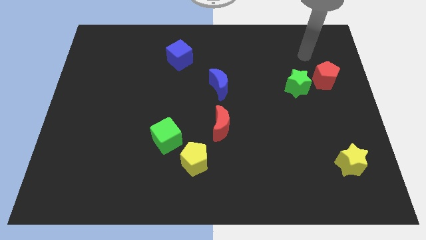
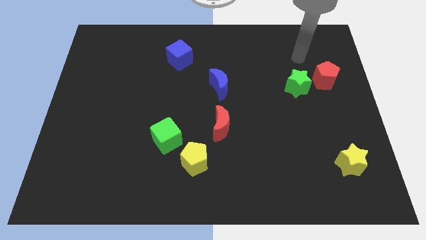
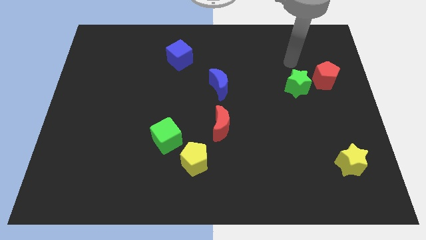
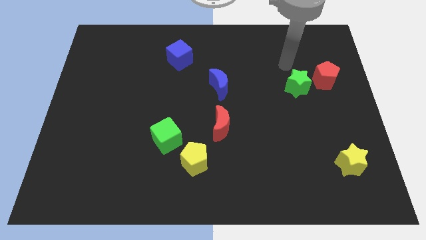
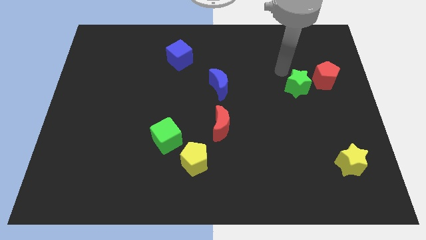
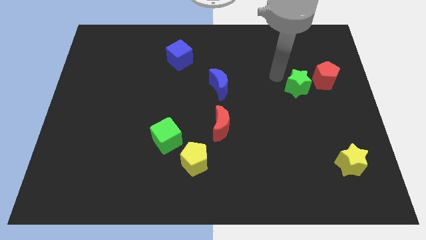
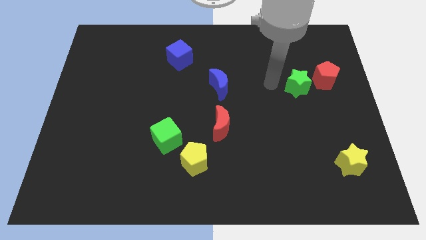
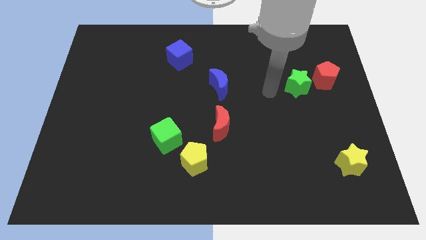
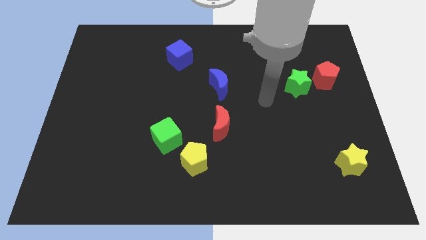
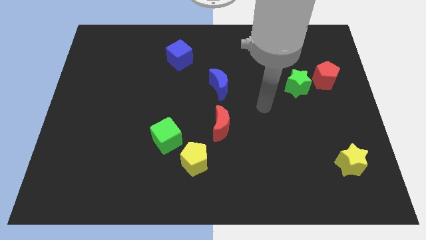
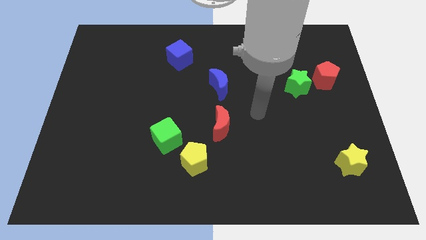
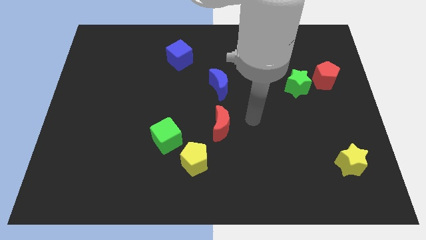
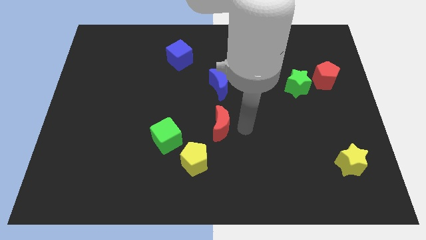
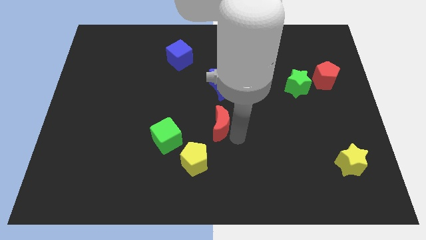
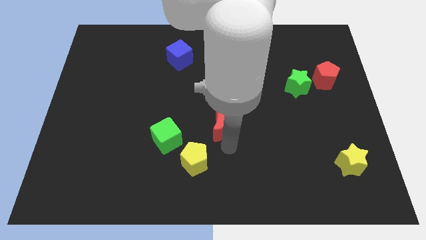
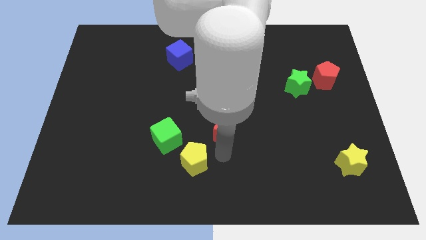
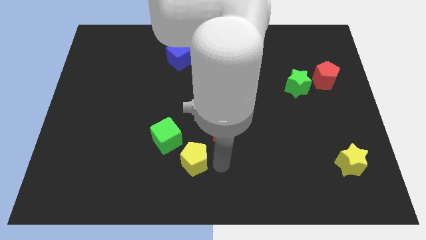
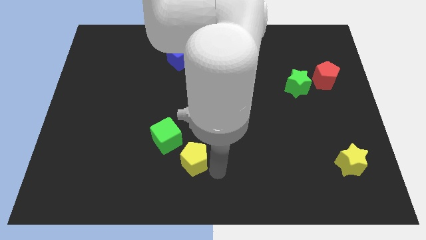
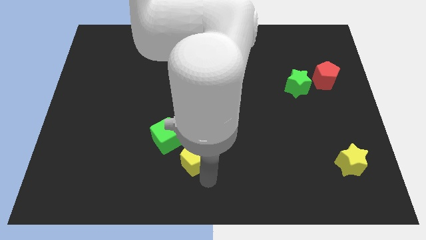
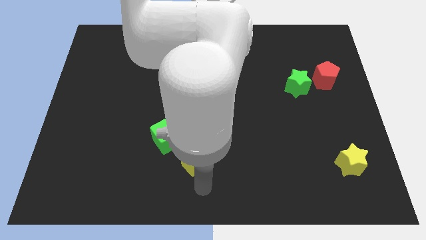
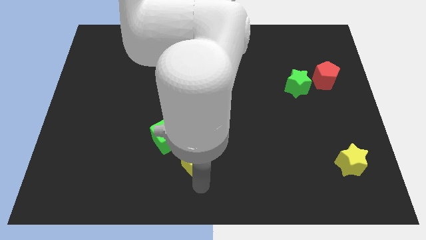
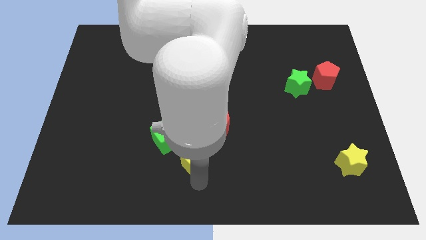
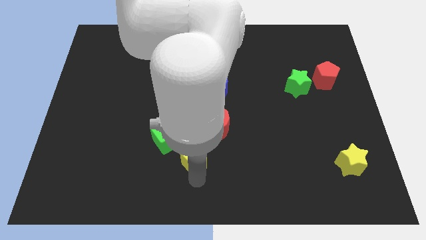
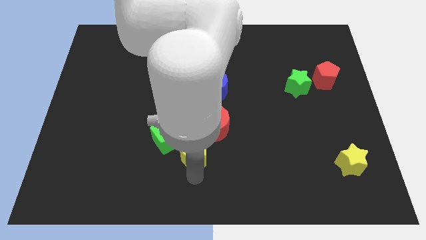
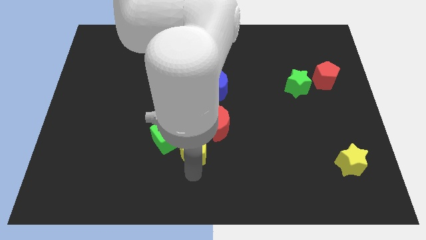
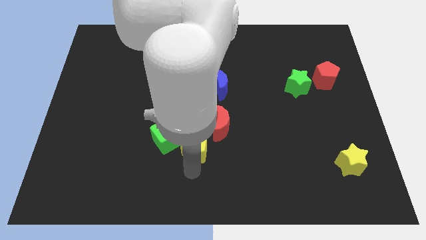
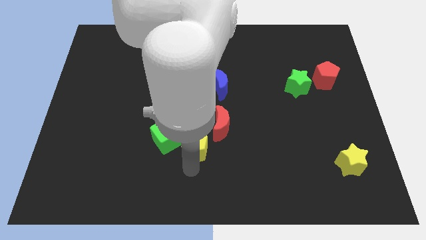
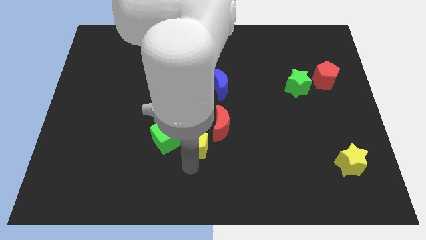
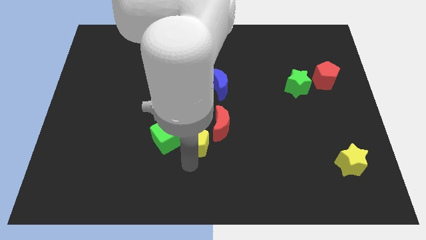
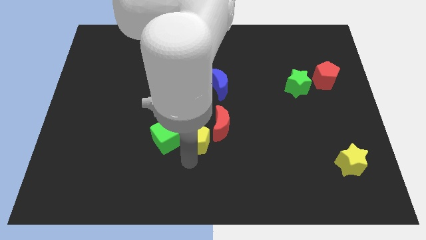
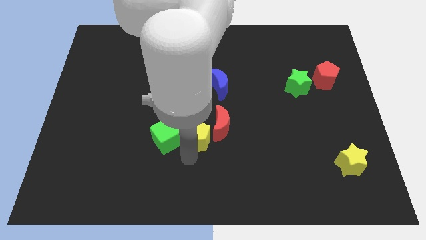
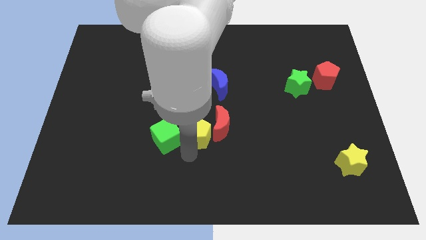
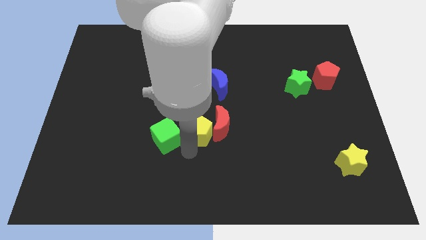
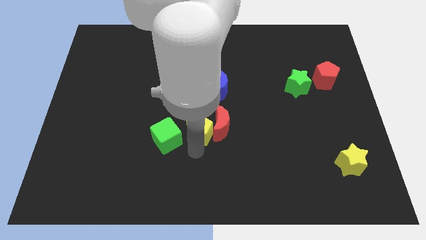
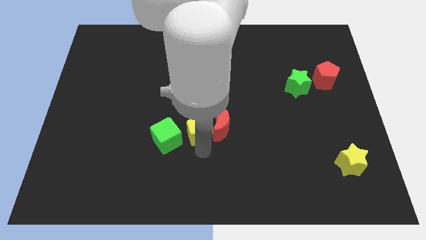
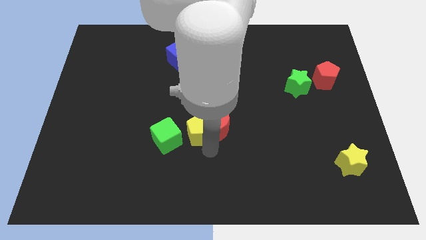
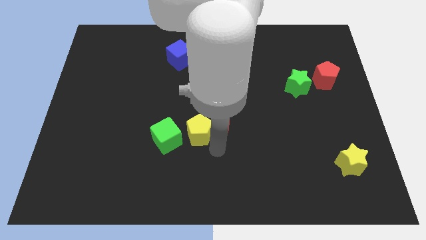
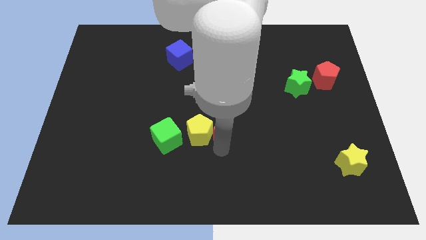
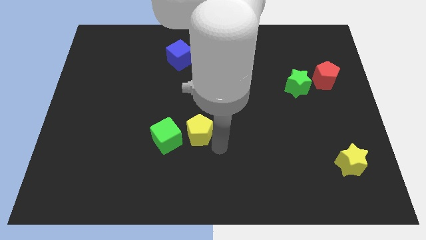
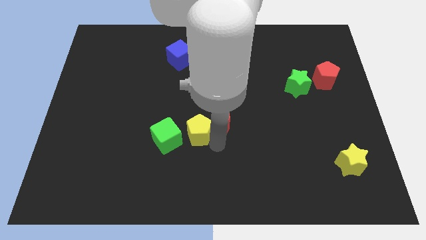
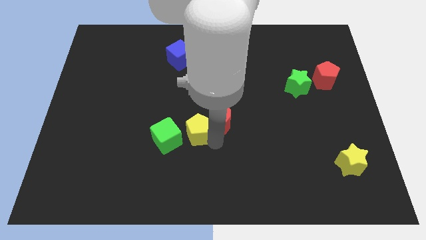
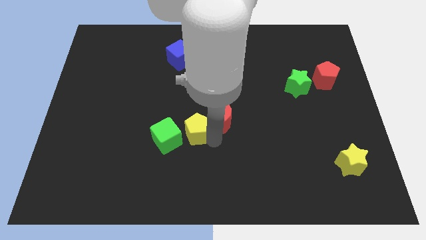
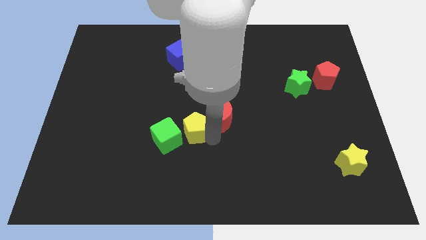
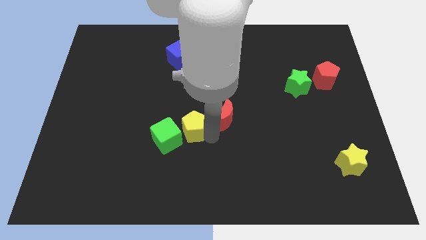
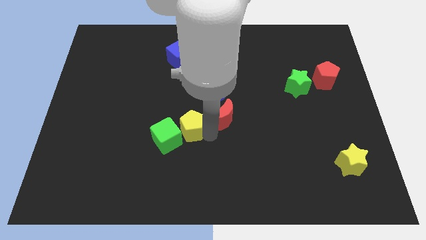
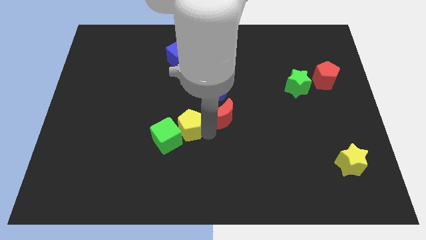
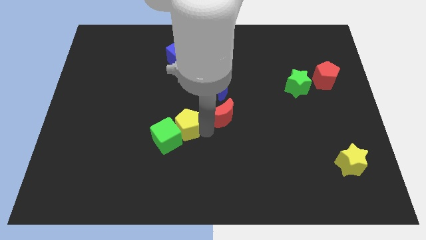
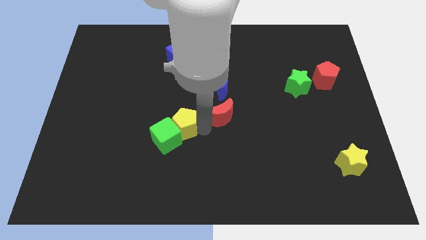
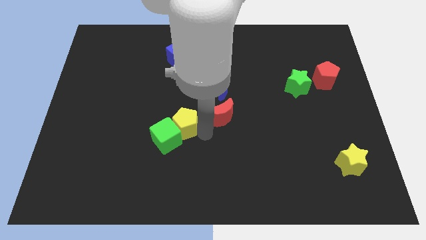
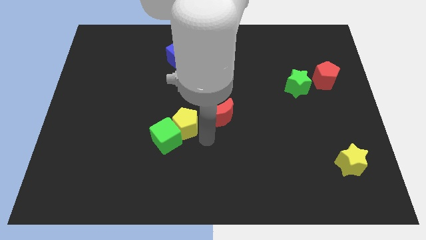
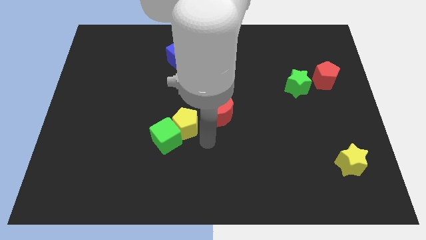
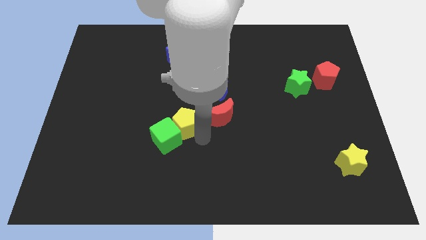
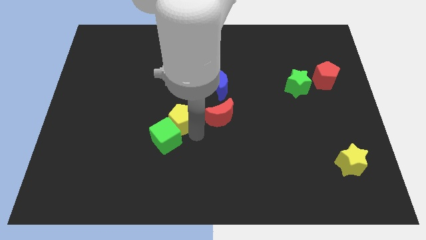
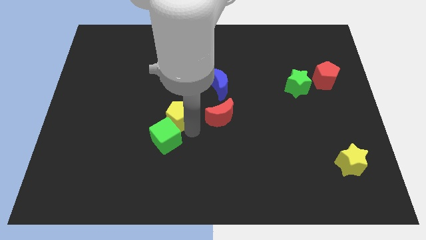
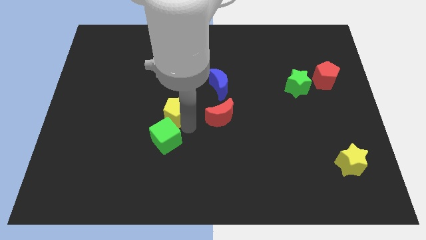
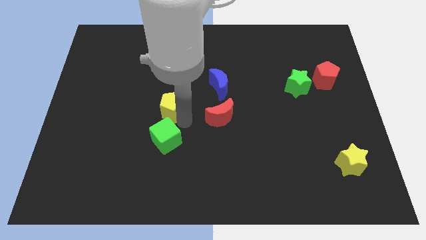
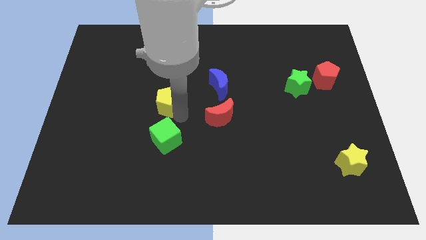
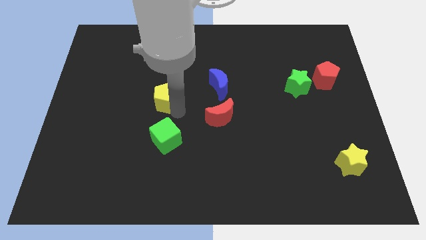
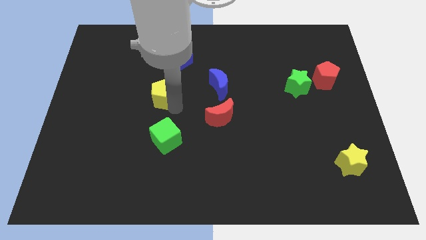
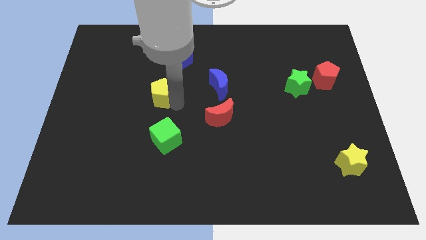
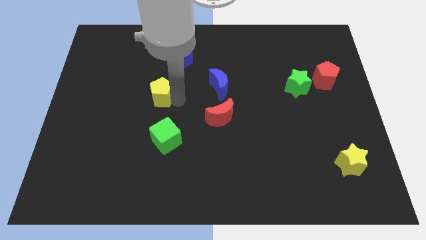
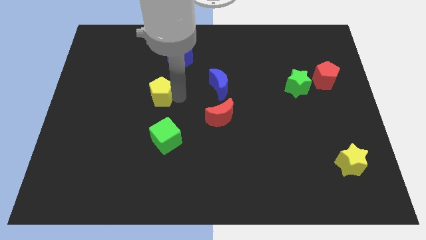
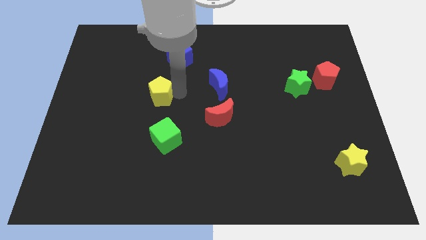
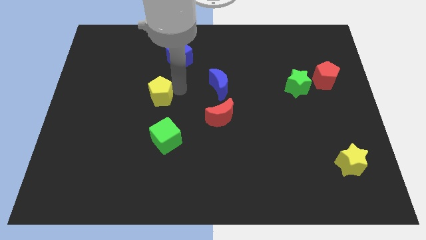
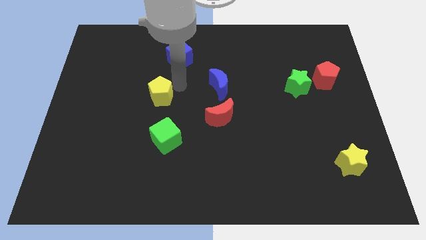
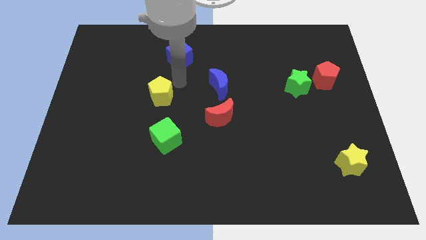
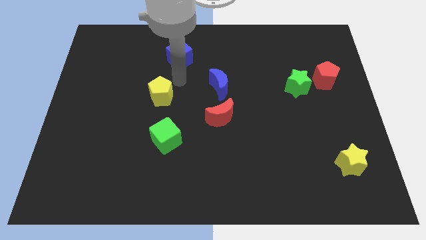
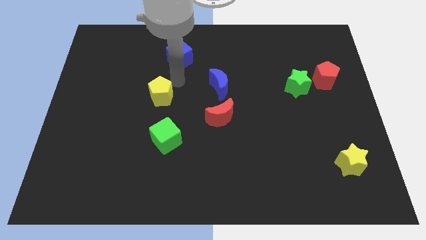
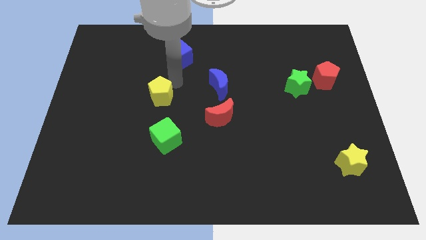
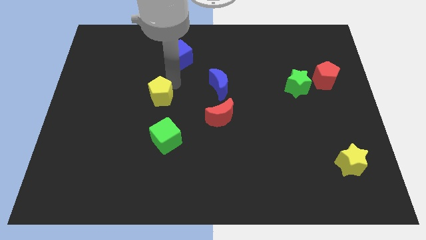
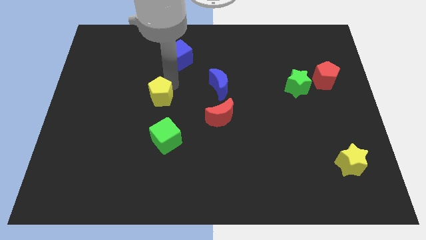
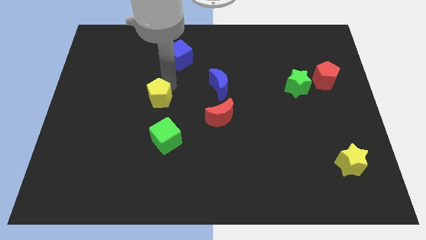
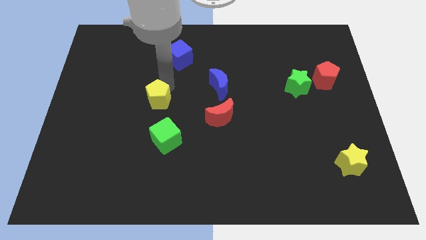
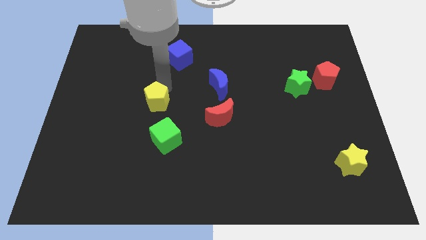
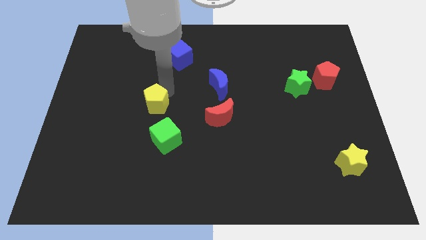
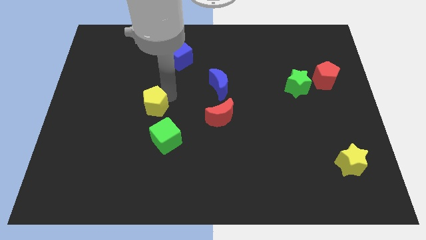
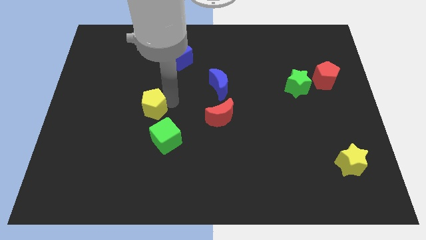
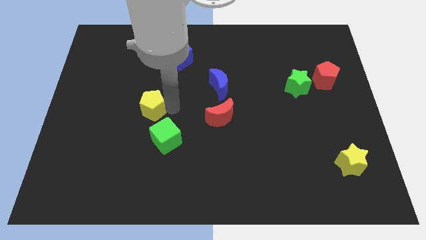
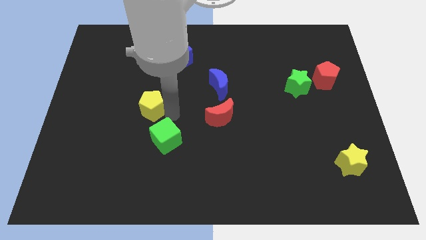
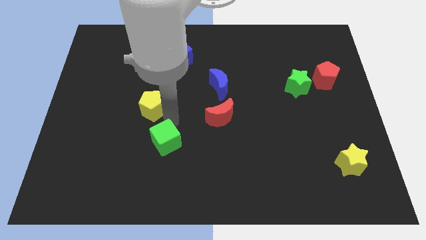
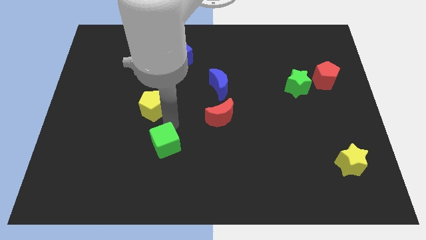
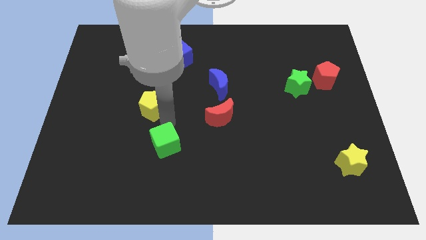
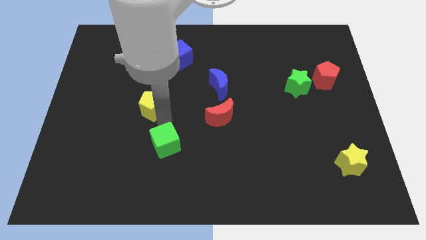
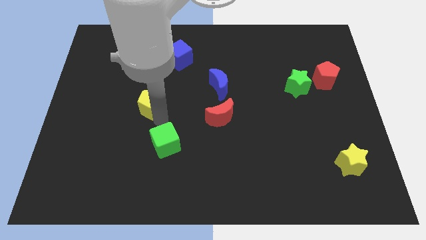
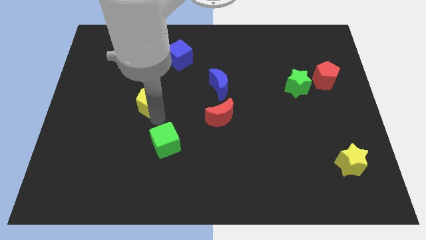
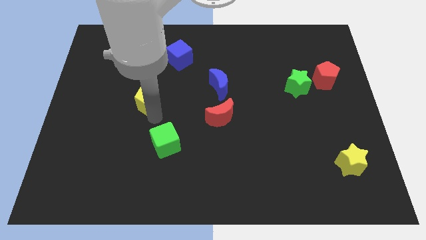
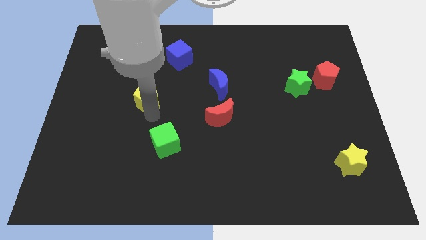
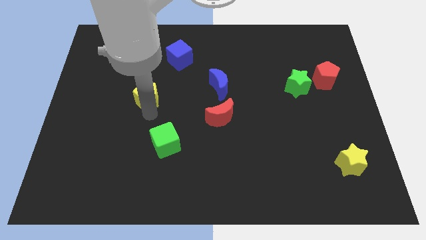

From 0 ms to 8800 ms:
slide the yellow pentagon upwards and left
